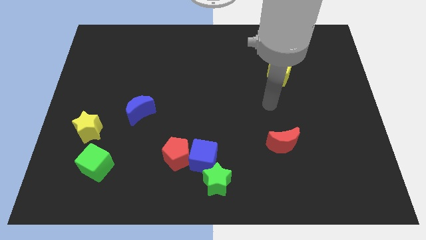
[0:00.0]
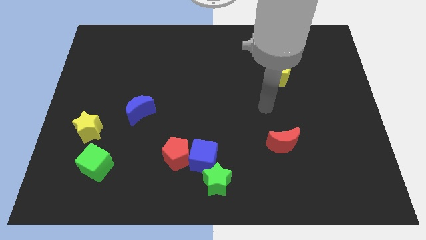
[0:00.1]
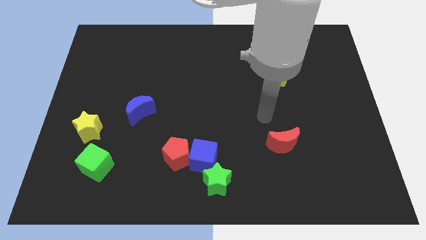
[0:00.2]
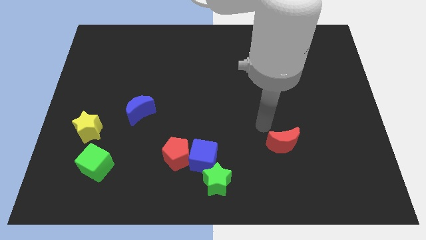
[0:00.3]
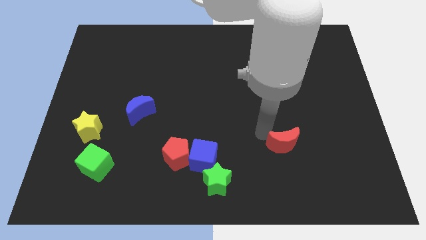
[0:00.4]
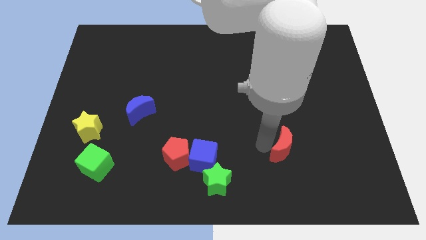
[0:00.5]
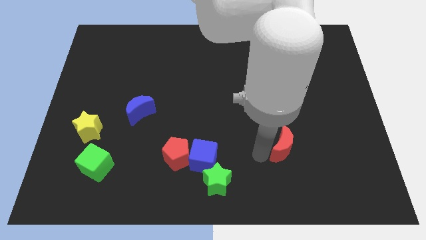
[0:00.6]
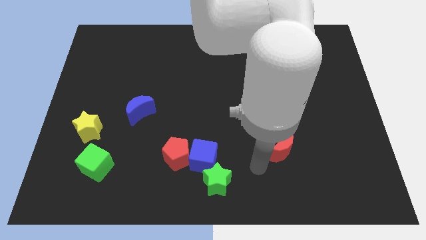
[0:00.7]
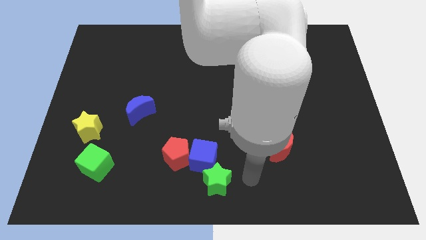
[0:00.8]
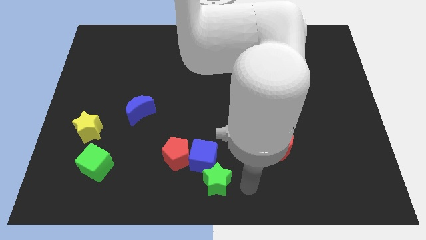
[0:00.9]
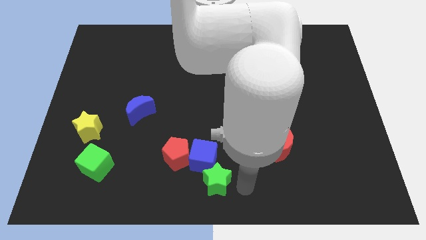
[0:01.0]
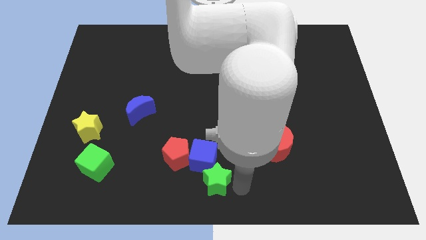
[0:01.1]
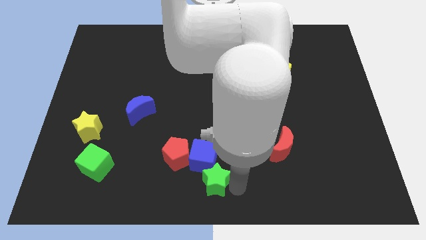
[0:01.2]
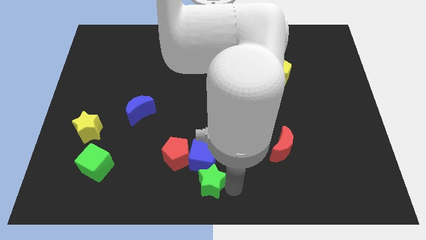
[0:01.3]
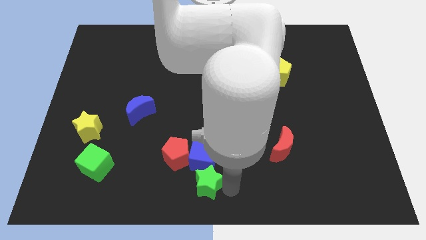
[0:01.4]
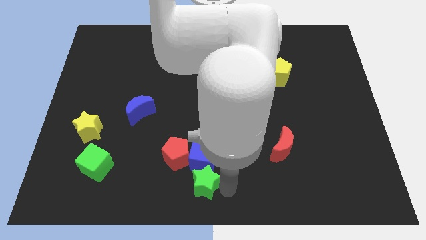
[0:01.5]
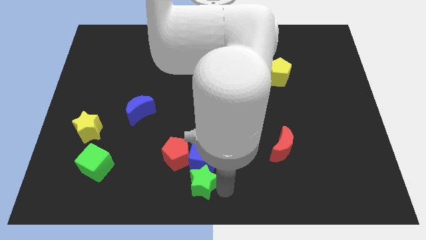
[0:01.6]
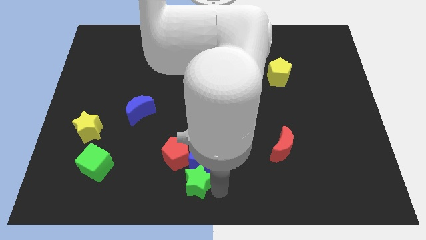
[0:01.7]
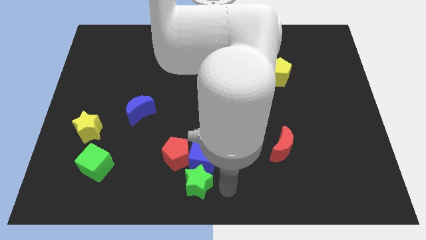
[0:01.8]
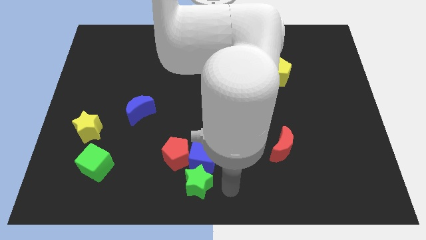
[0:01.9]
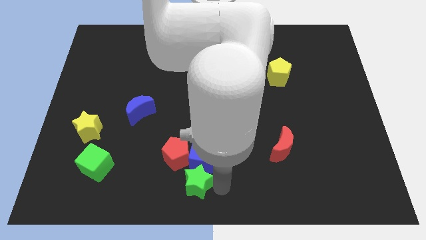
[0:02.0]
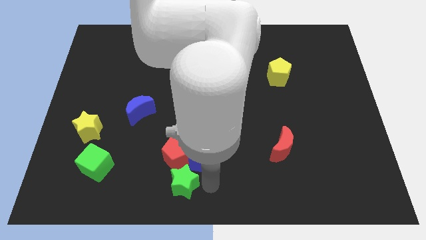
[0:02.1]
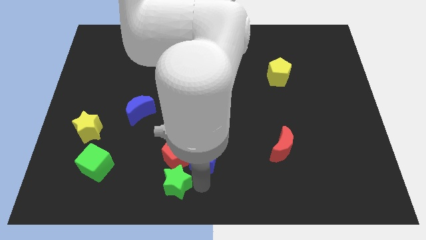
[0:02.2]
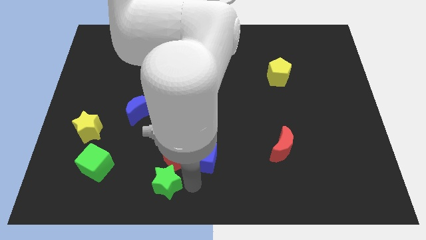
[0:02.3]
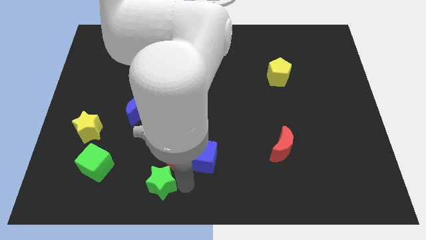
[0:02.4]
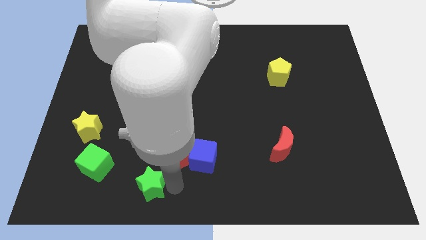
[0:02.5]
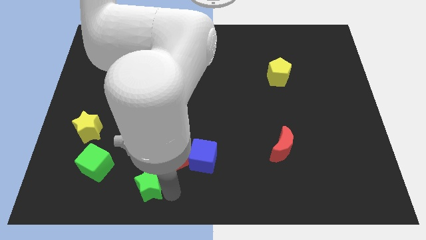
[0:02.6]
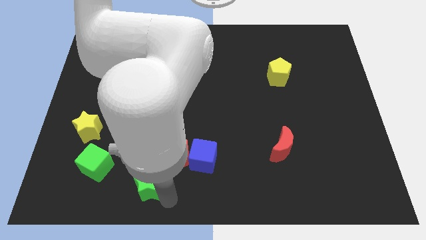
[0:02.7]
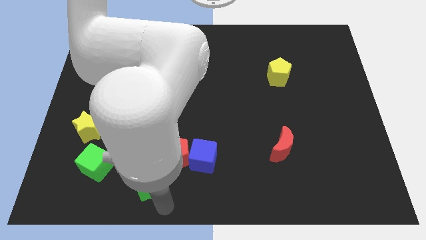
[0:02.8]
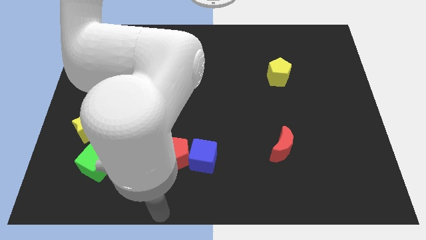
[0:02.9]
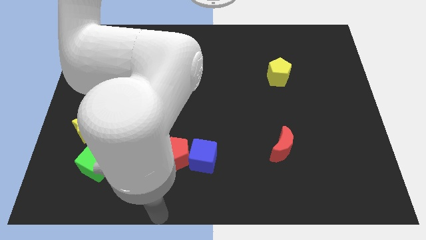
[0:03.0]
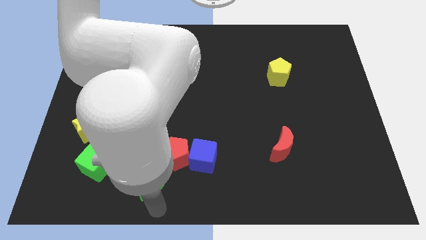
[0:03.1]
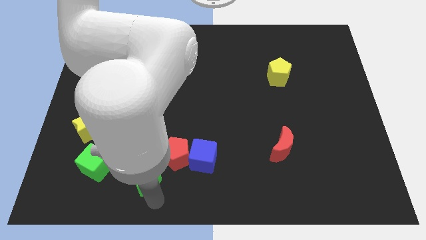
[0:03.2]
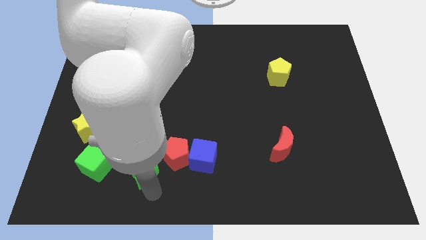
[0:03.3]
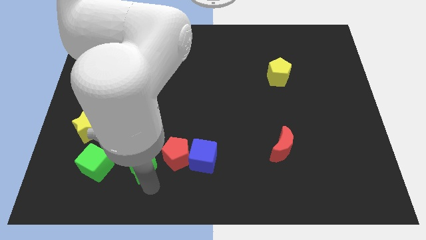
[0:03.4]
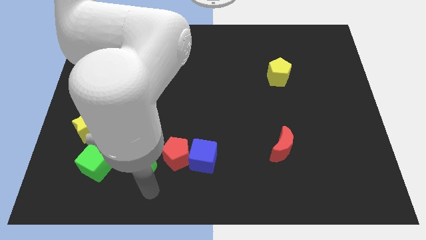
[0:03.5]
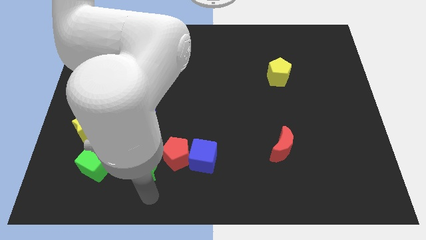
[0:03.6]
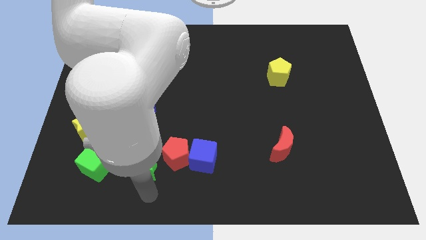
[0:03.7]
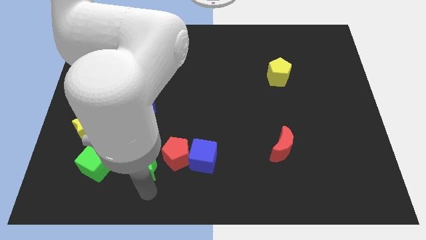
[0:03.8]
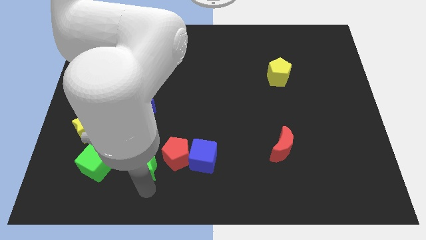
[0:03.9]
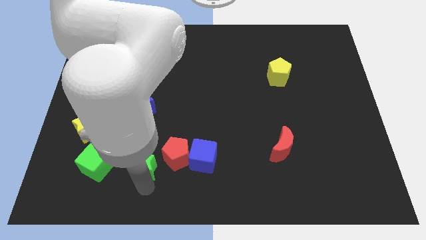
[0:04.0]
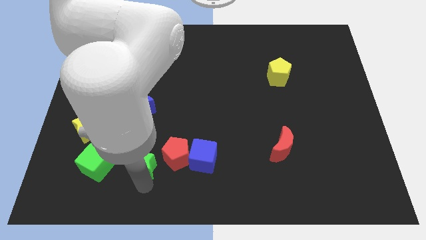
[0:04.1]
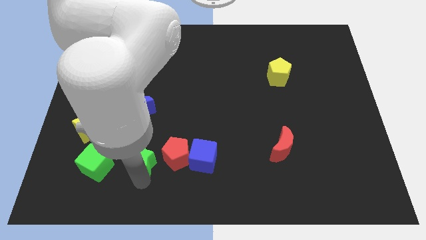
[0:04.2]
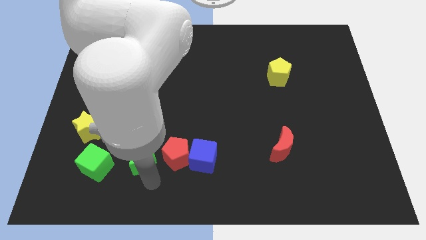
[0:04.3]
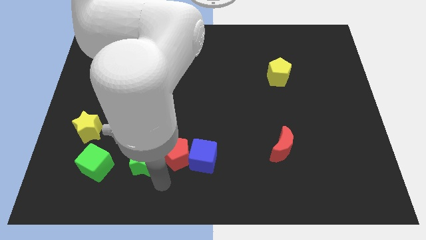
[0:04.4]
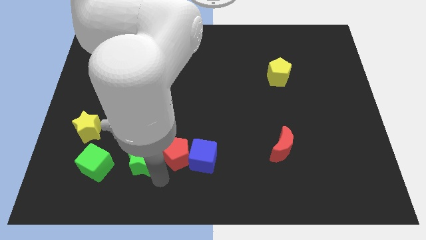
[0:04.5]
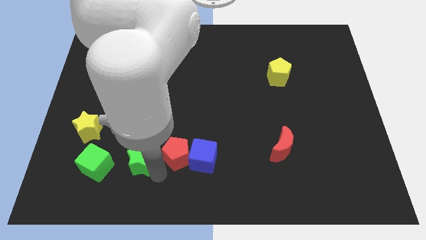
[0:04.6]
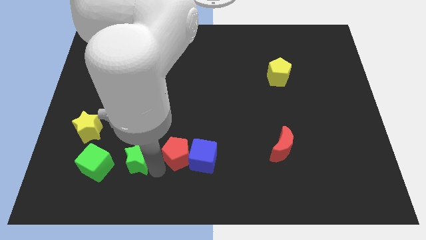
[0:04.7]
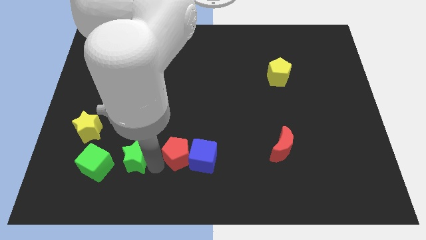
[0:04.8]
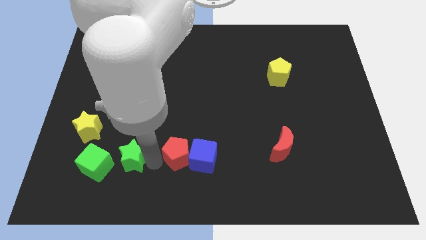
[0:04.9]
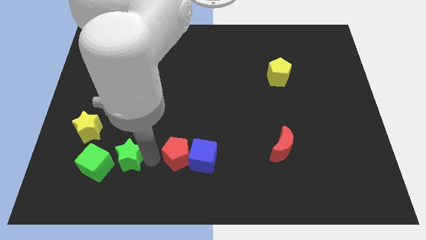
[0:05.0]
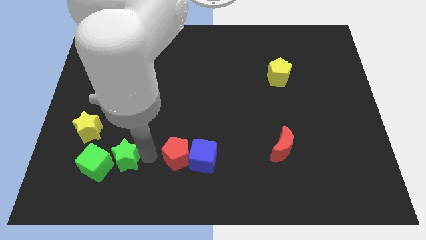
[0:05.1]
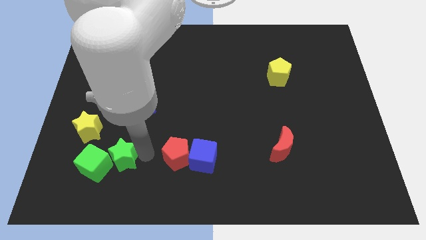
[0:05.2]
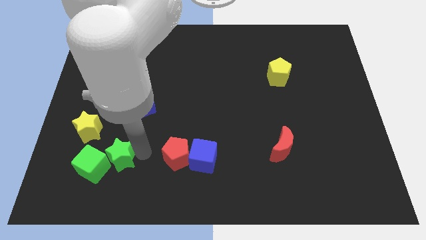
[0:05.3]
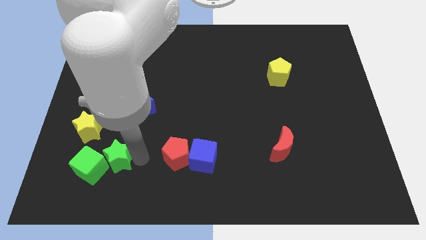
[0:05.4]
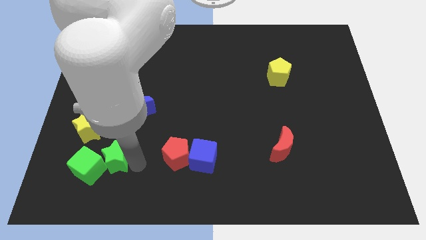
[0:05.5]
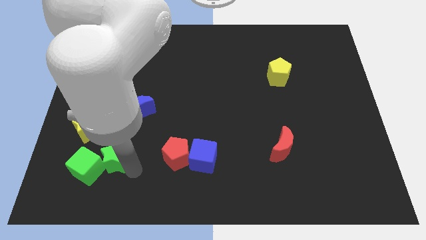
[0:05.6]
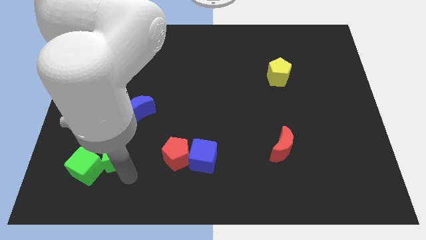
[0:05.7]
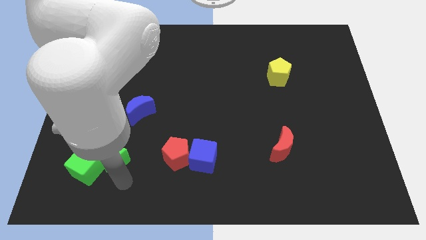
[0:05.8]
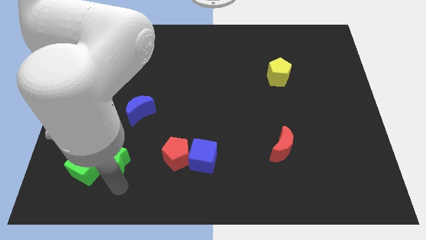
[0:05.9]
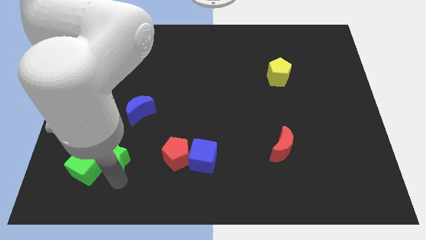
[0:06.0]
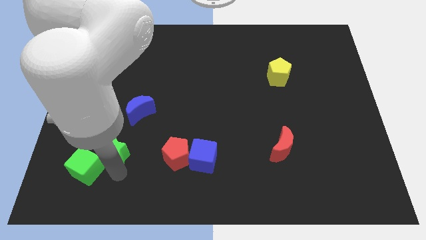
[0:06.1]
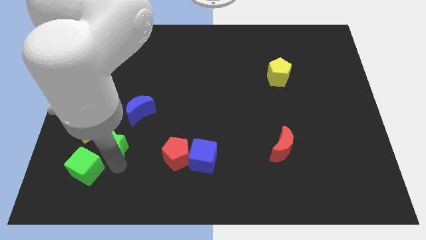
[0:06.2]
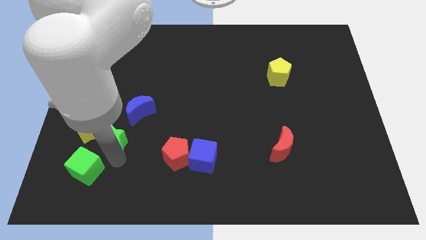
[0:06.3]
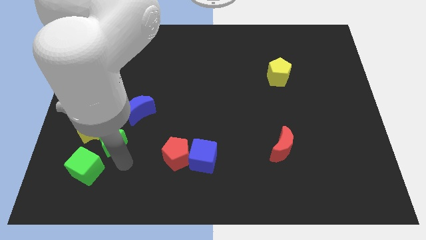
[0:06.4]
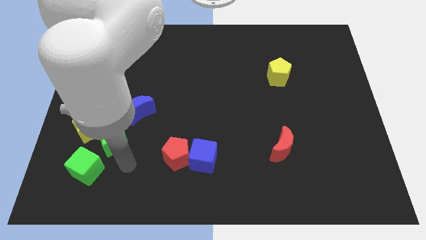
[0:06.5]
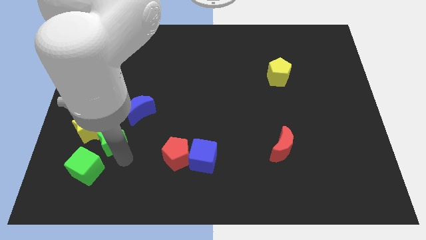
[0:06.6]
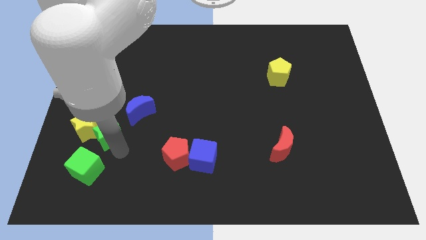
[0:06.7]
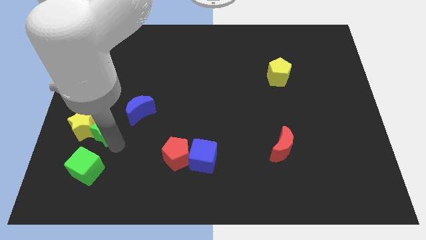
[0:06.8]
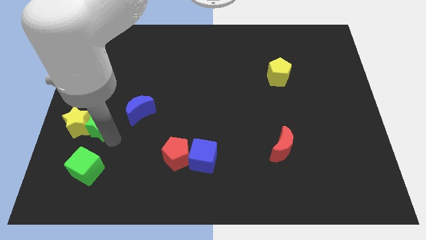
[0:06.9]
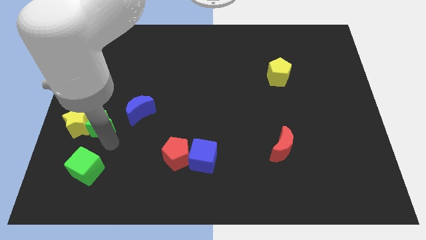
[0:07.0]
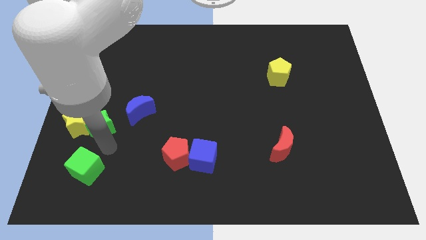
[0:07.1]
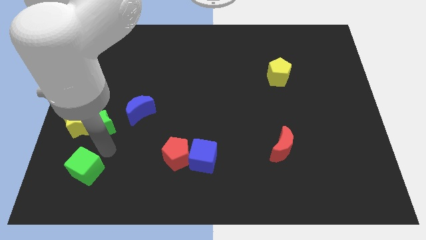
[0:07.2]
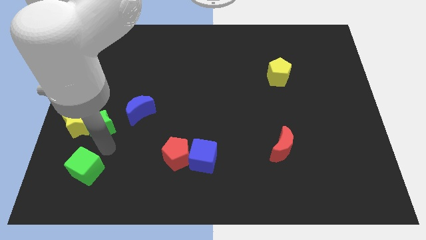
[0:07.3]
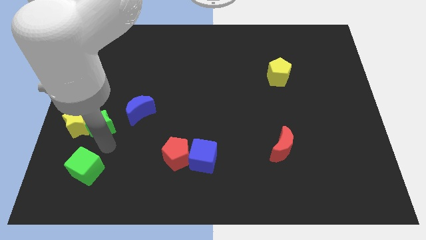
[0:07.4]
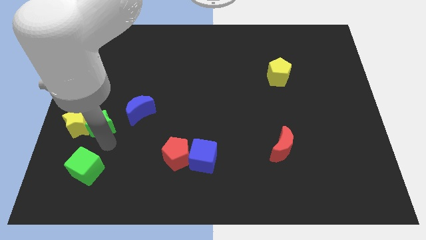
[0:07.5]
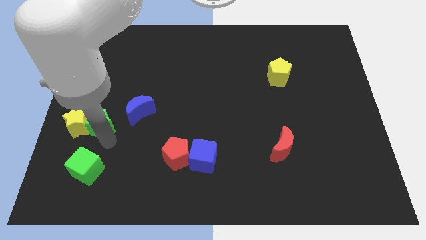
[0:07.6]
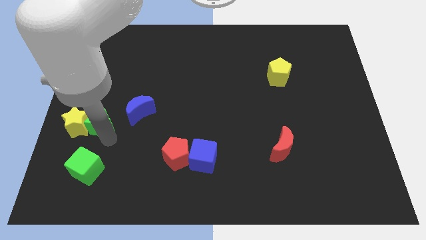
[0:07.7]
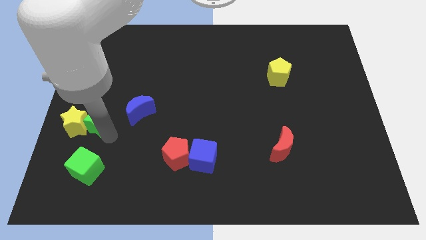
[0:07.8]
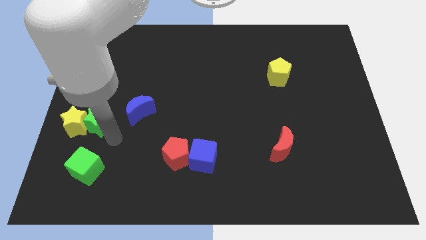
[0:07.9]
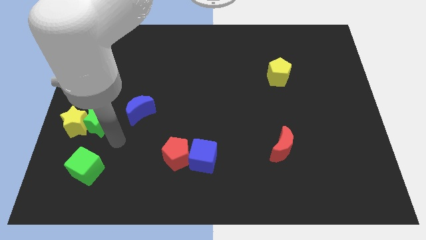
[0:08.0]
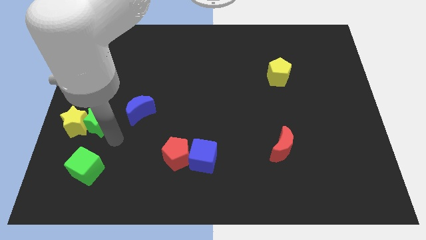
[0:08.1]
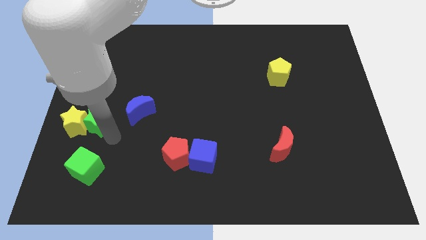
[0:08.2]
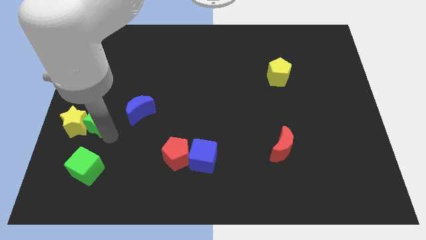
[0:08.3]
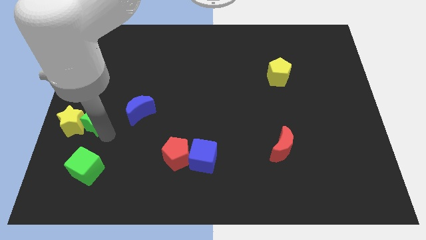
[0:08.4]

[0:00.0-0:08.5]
move the green star to the left side
